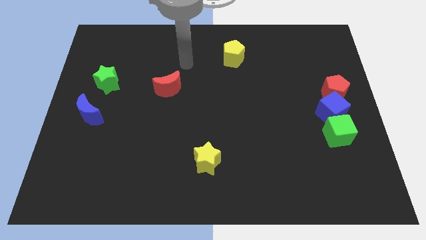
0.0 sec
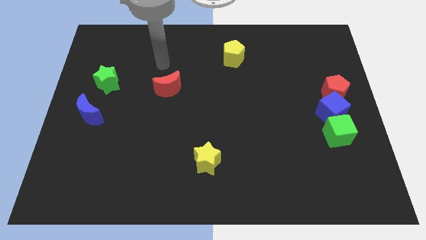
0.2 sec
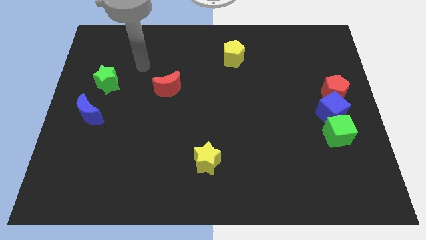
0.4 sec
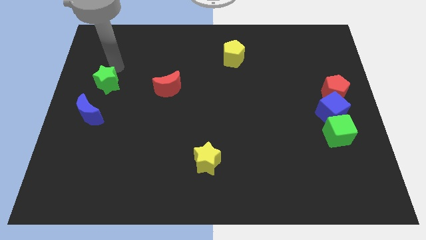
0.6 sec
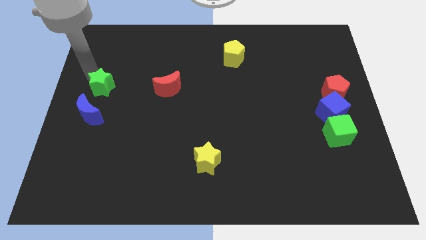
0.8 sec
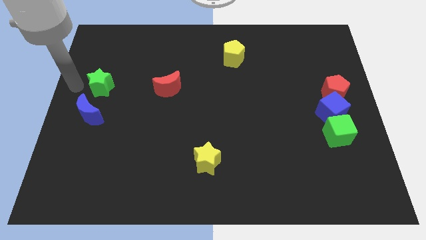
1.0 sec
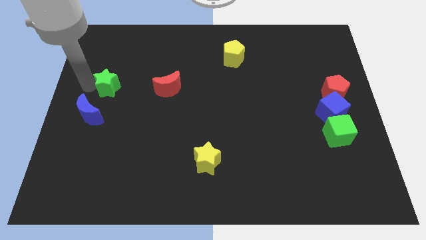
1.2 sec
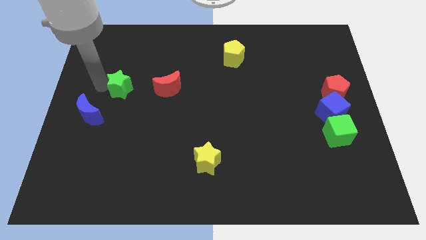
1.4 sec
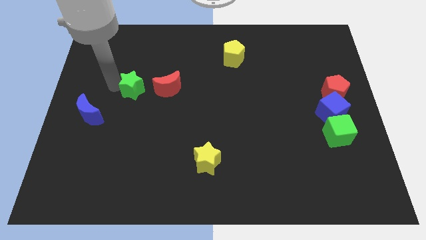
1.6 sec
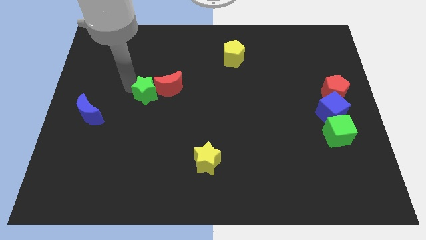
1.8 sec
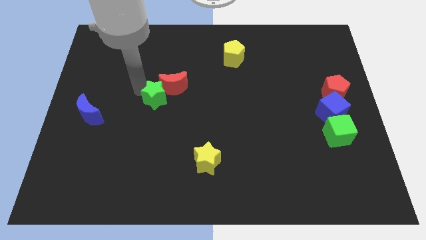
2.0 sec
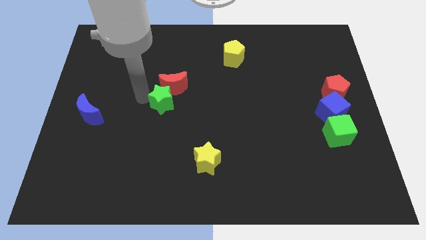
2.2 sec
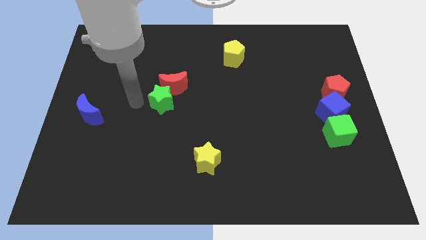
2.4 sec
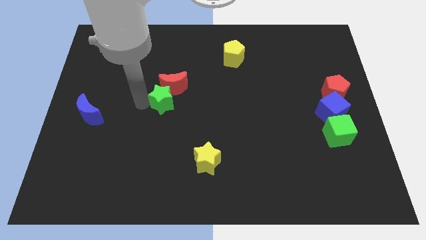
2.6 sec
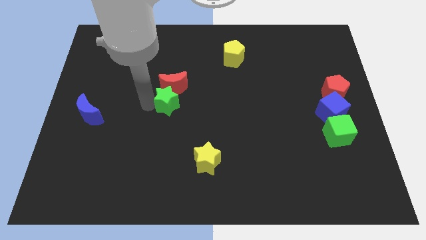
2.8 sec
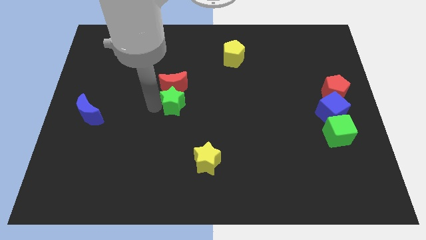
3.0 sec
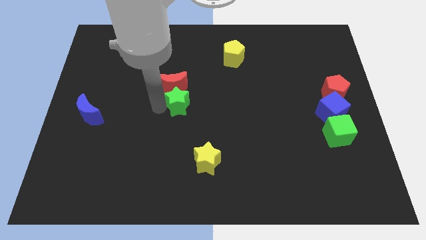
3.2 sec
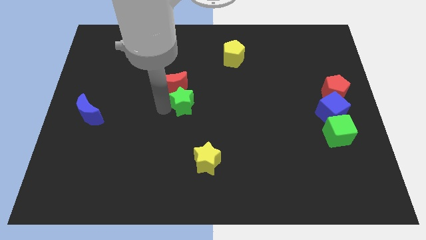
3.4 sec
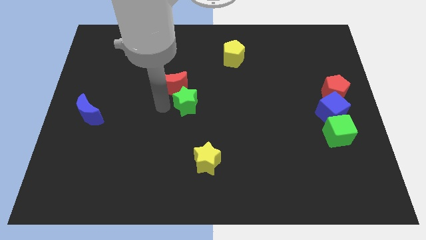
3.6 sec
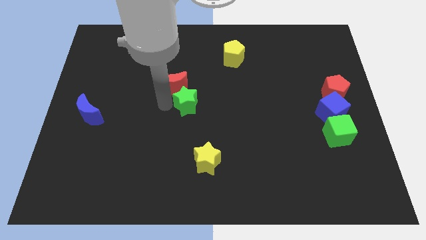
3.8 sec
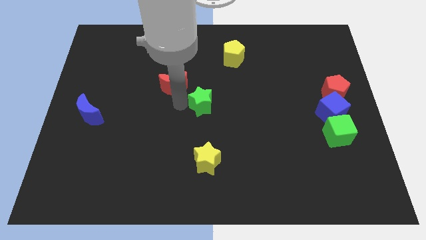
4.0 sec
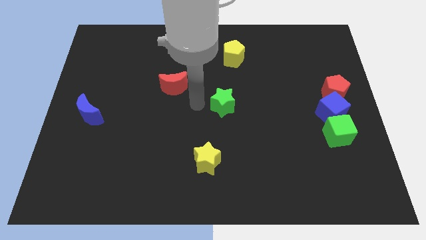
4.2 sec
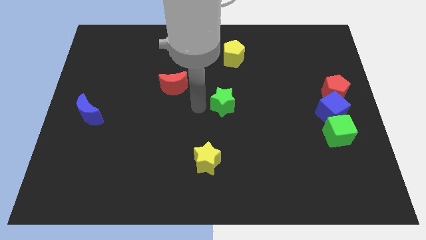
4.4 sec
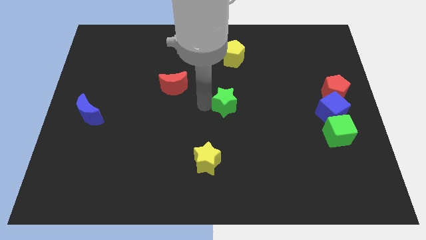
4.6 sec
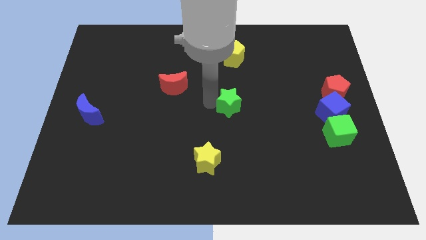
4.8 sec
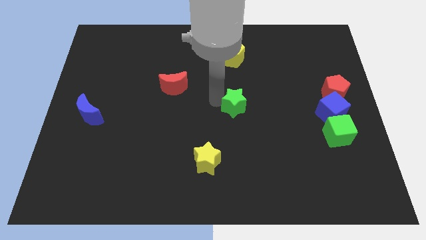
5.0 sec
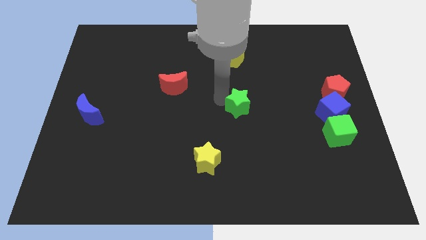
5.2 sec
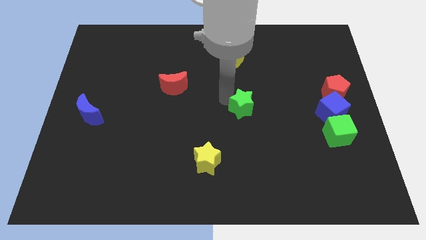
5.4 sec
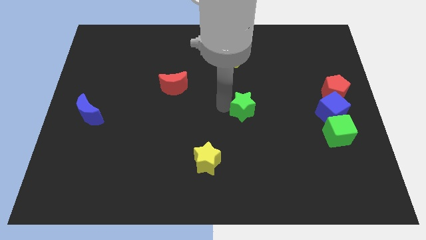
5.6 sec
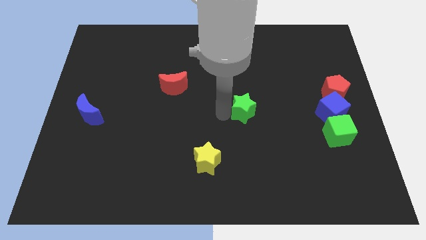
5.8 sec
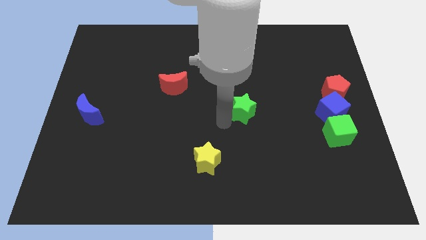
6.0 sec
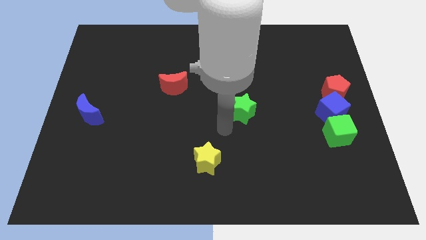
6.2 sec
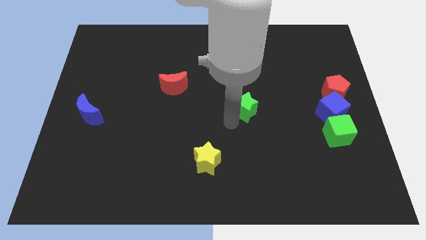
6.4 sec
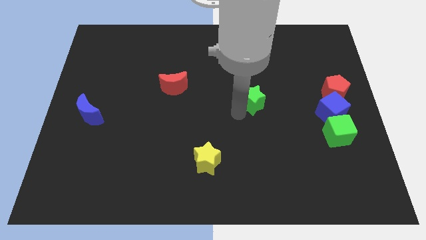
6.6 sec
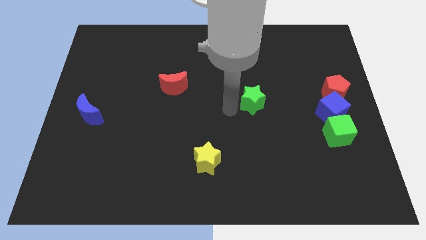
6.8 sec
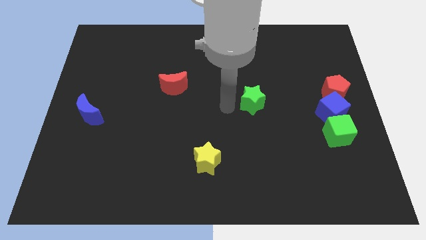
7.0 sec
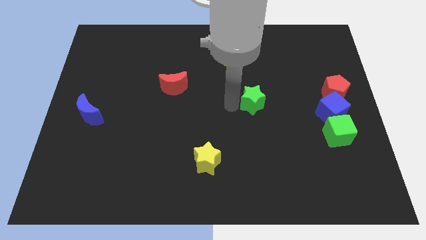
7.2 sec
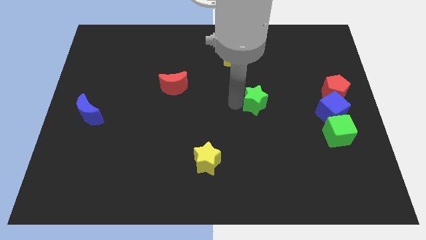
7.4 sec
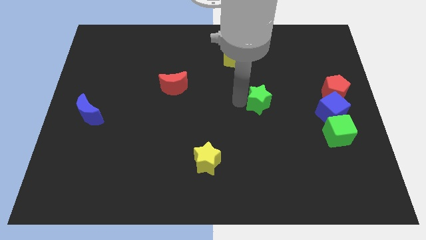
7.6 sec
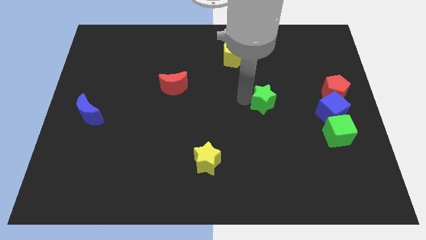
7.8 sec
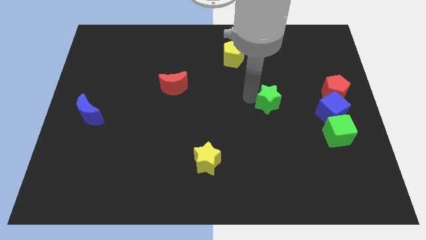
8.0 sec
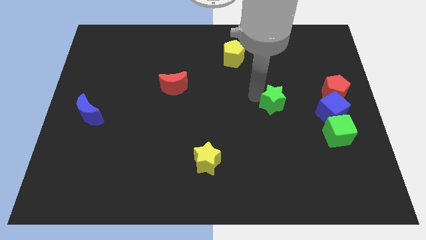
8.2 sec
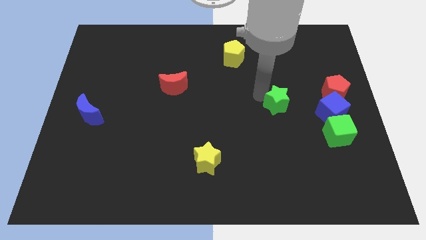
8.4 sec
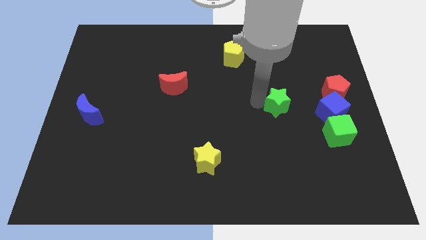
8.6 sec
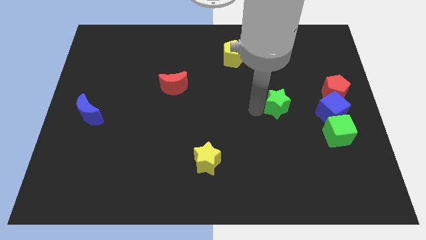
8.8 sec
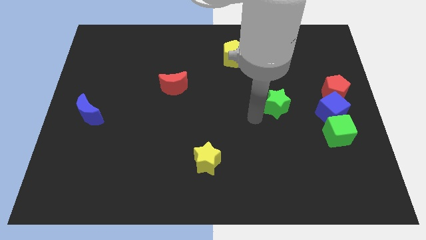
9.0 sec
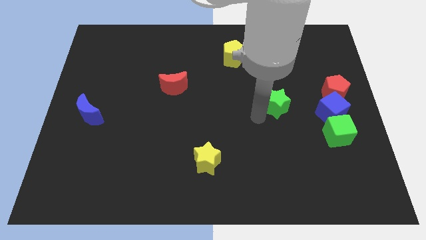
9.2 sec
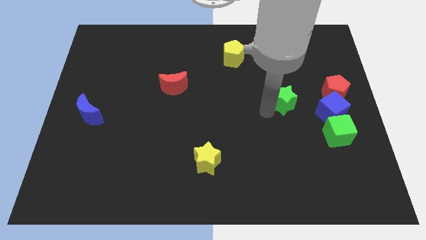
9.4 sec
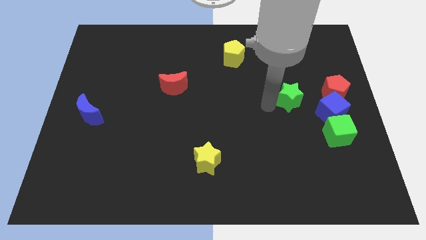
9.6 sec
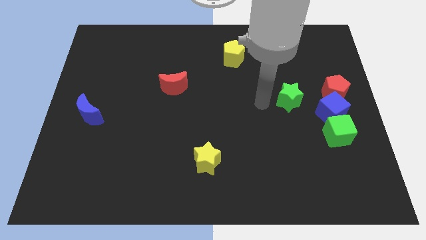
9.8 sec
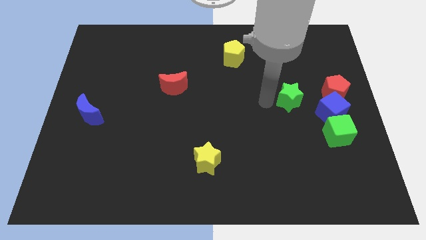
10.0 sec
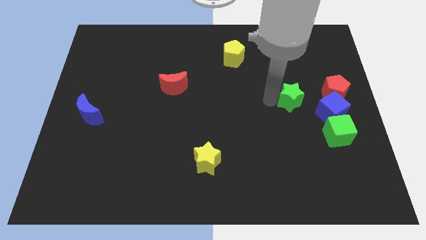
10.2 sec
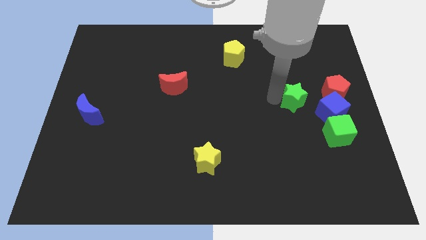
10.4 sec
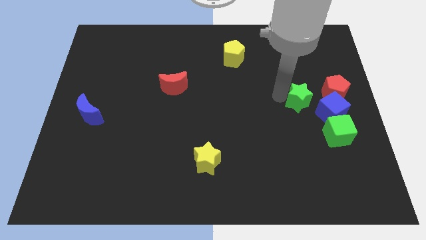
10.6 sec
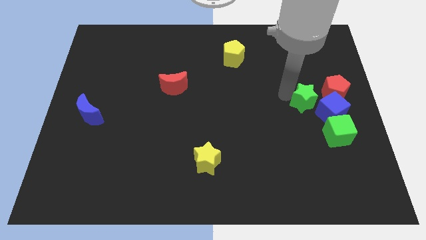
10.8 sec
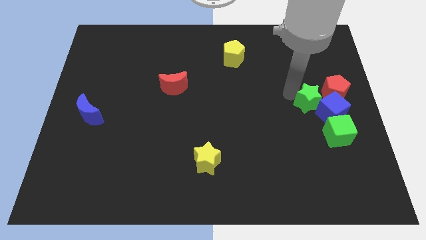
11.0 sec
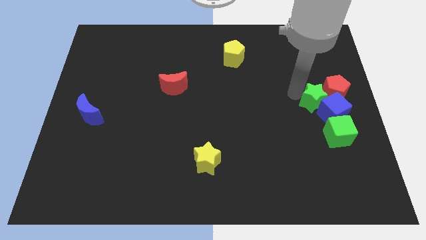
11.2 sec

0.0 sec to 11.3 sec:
slide the green star towards the red pentagon

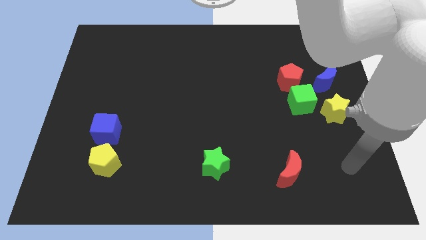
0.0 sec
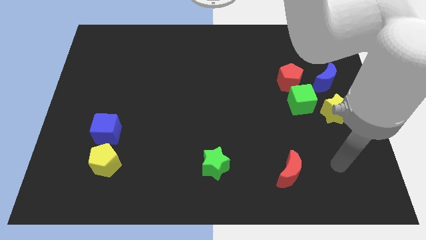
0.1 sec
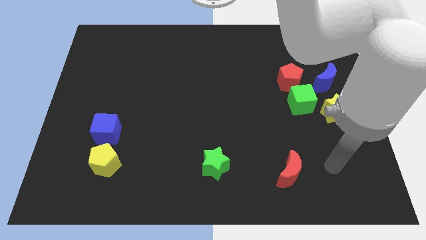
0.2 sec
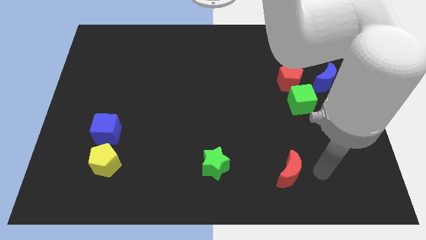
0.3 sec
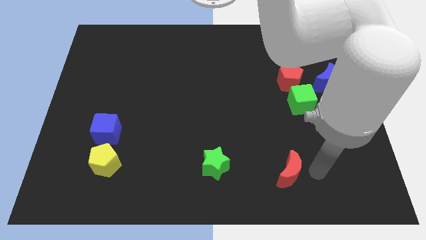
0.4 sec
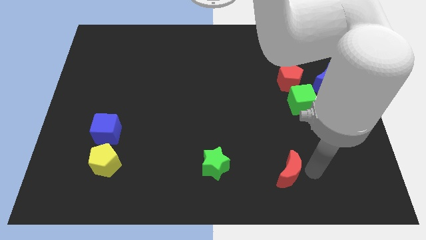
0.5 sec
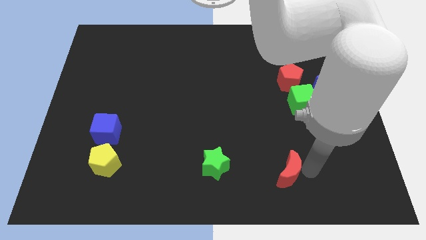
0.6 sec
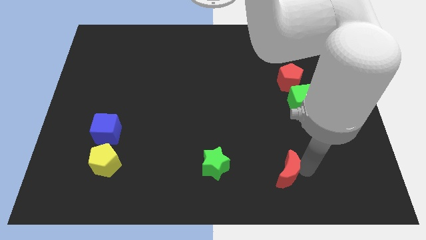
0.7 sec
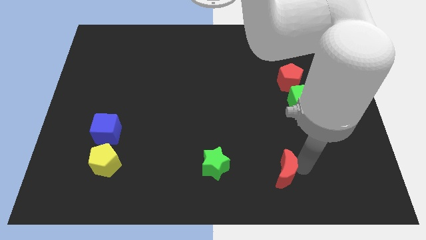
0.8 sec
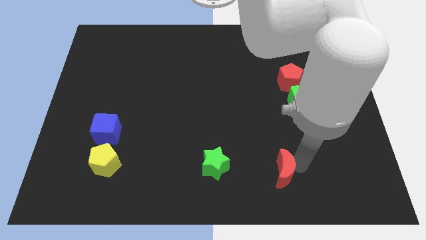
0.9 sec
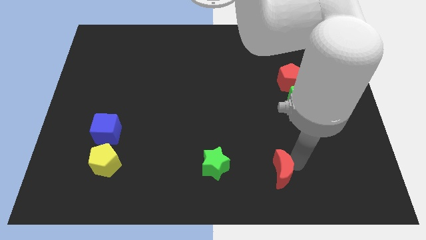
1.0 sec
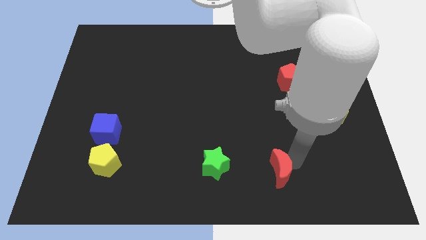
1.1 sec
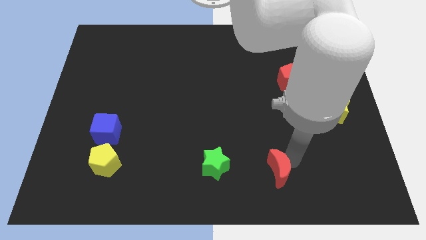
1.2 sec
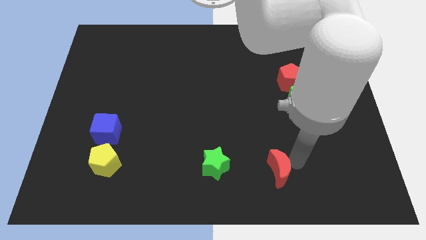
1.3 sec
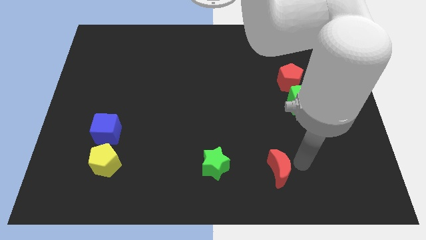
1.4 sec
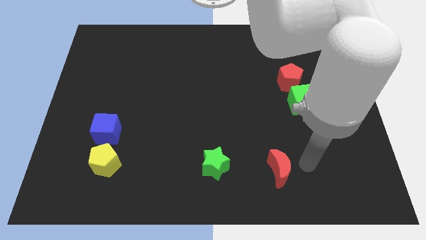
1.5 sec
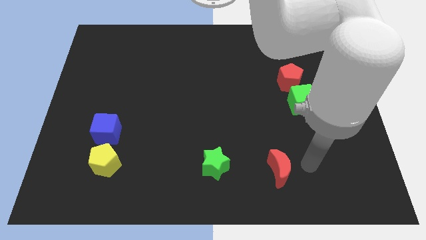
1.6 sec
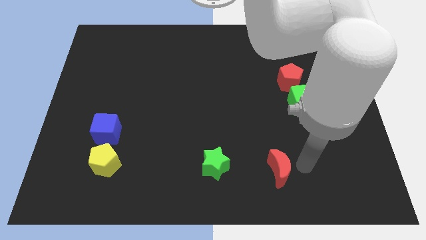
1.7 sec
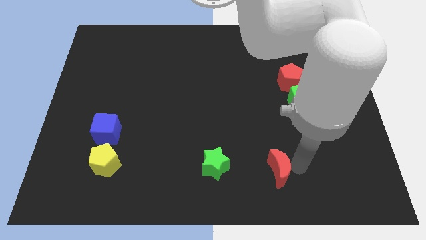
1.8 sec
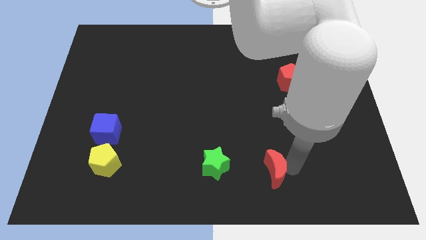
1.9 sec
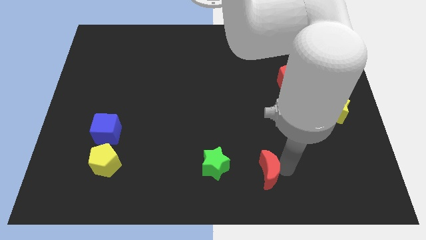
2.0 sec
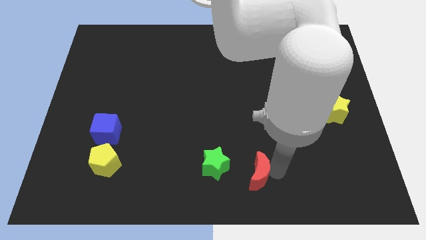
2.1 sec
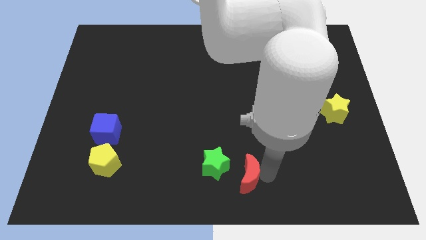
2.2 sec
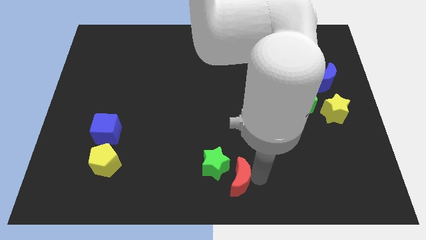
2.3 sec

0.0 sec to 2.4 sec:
slide the red moon towards the green star
